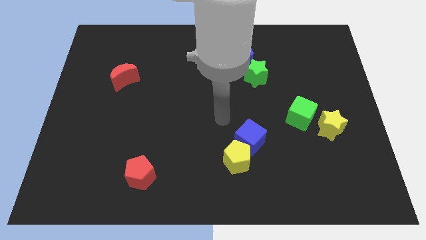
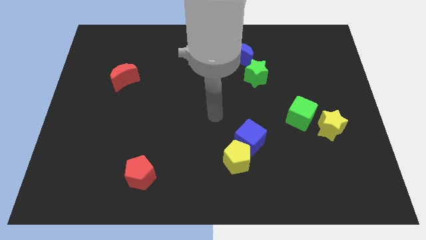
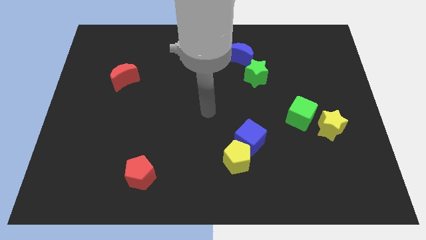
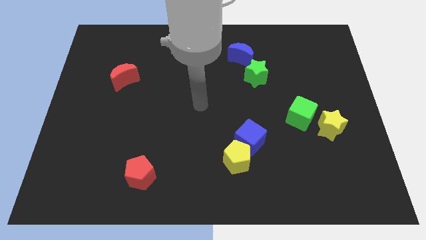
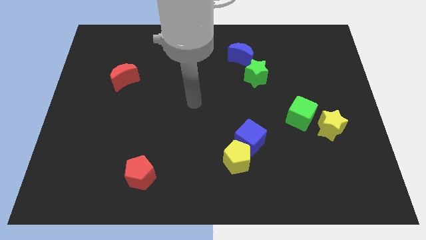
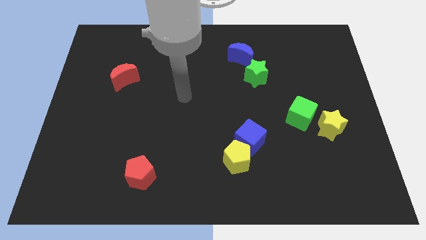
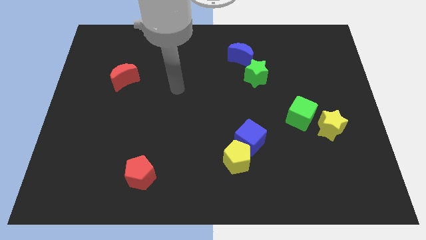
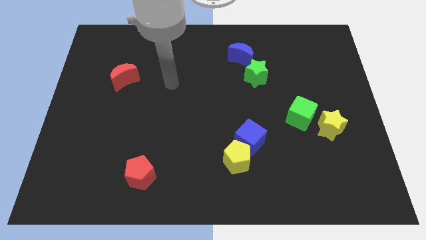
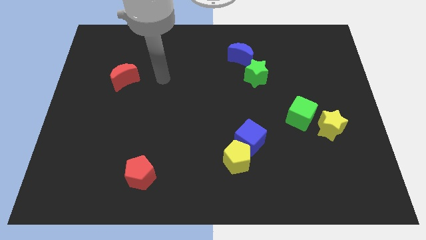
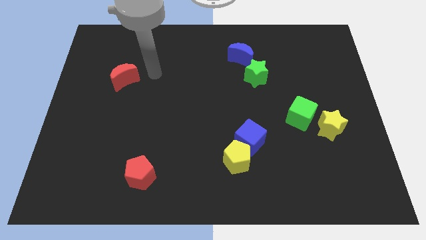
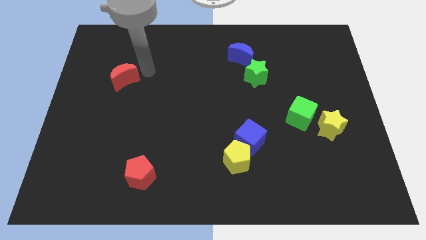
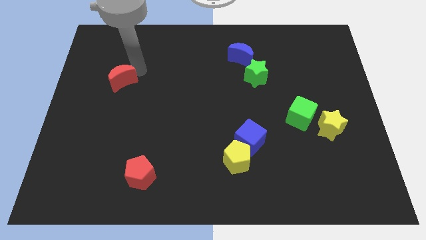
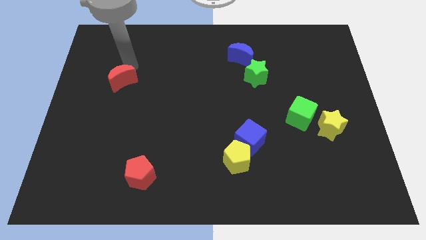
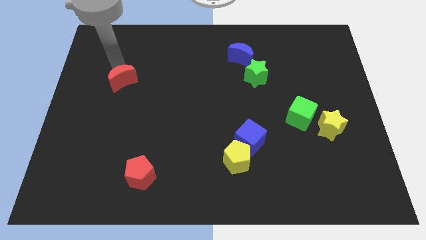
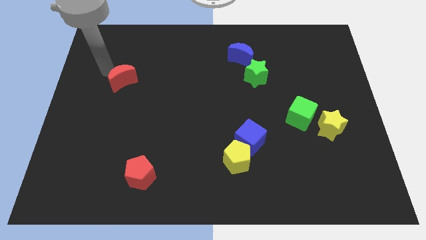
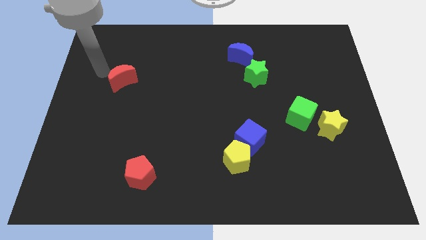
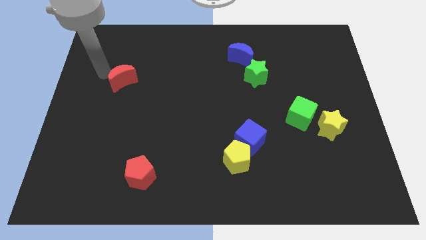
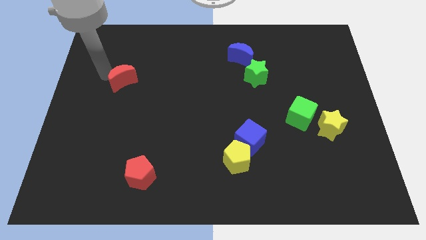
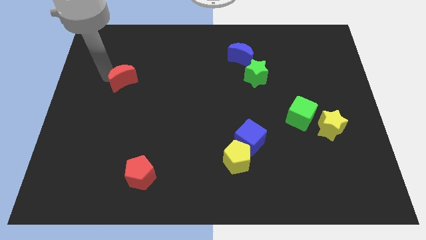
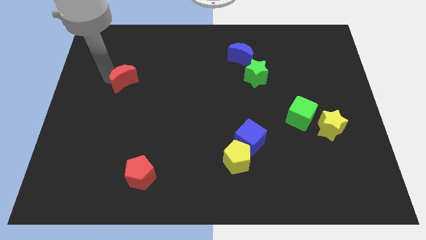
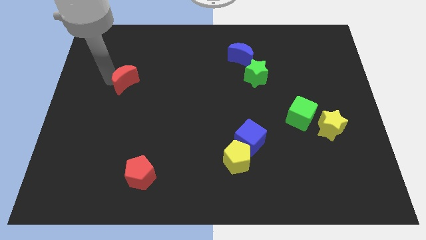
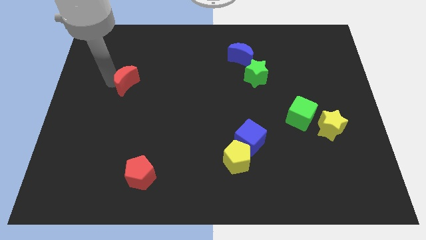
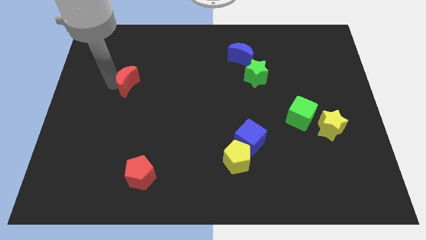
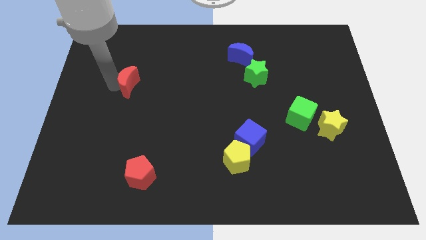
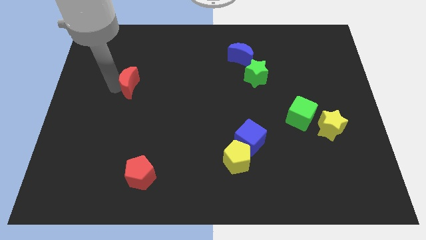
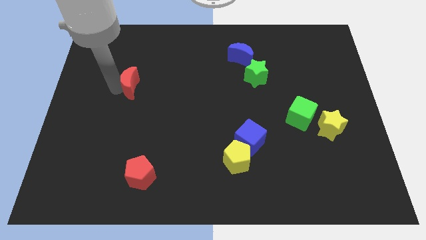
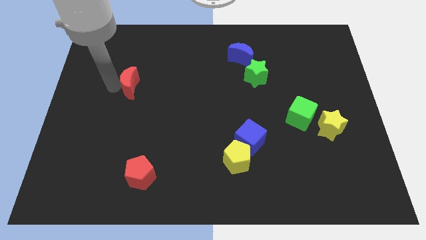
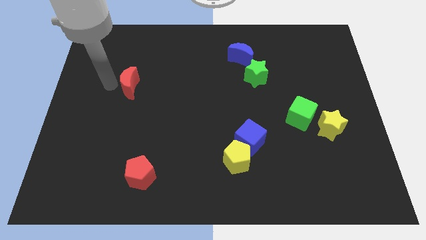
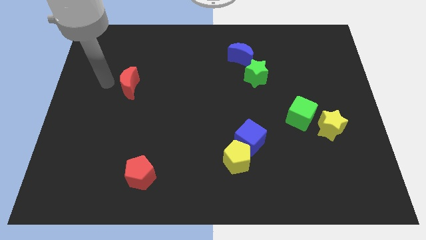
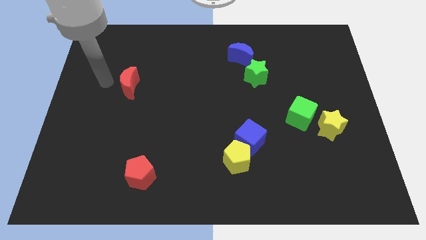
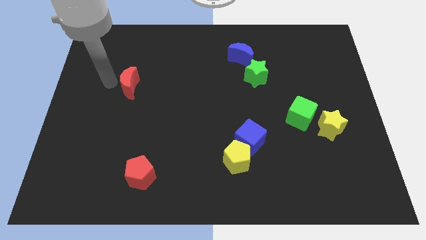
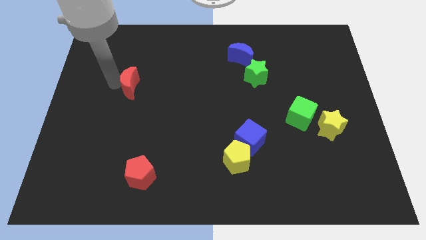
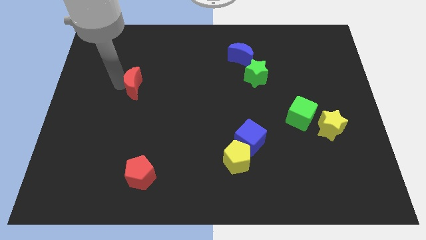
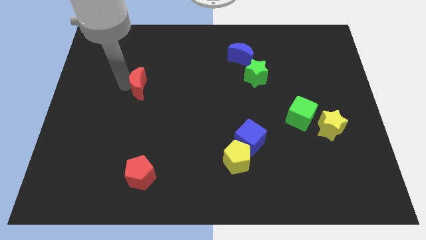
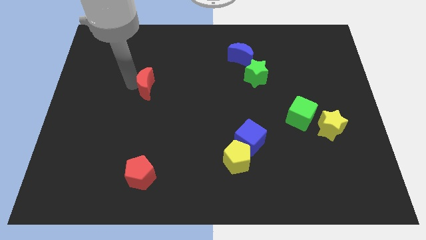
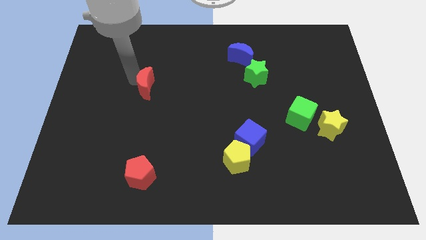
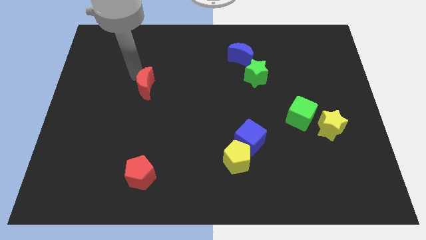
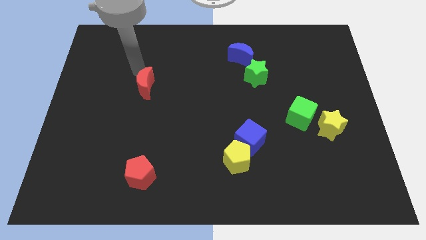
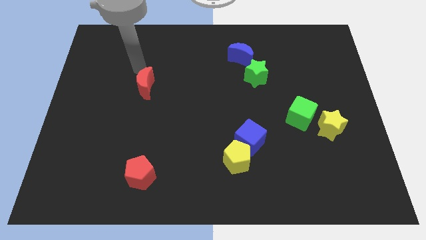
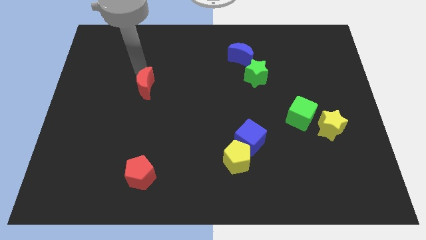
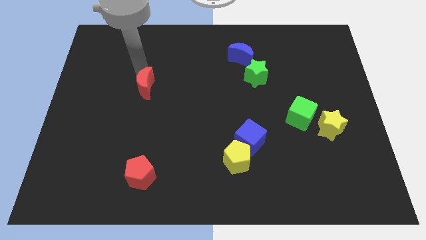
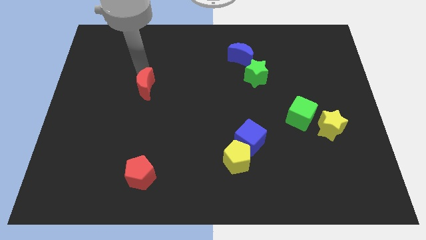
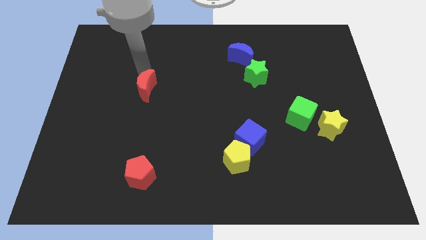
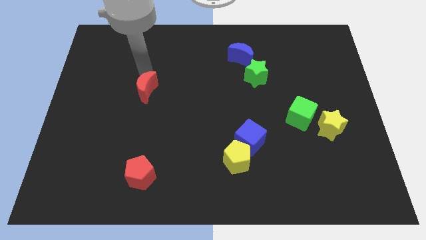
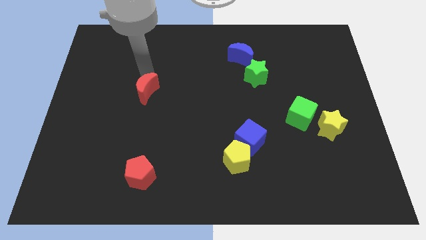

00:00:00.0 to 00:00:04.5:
move the red moon slightly diagonally downwards and right

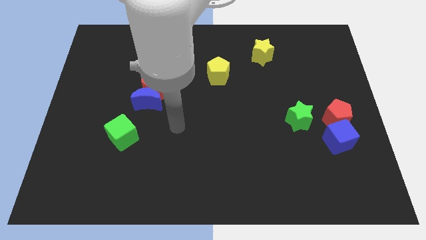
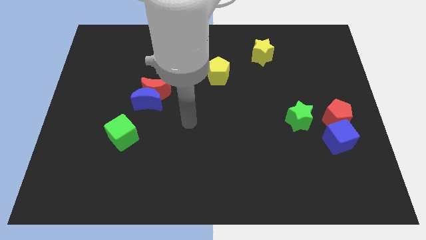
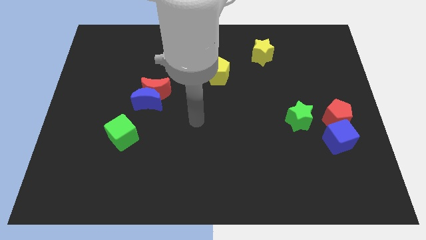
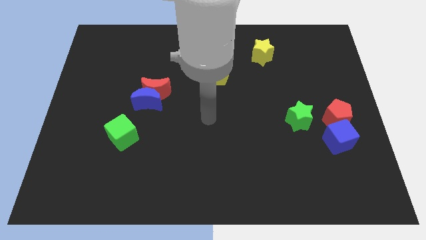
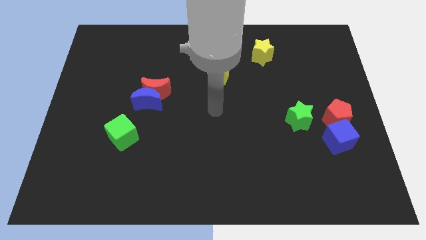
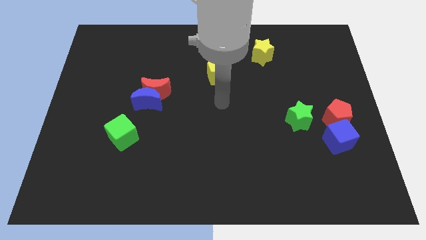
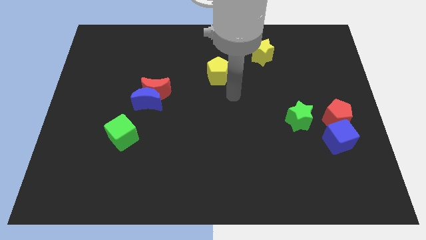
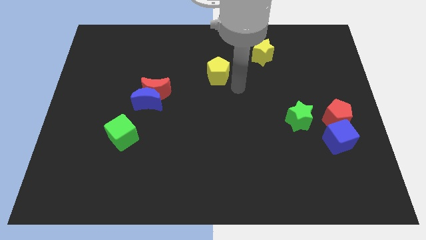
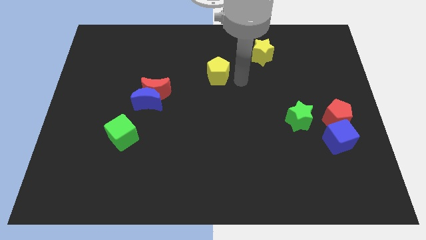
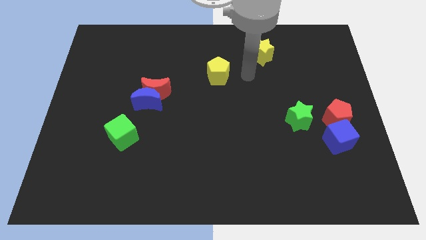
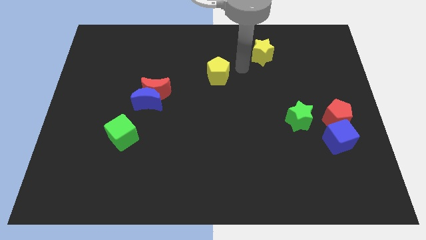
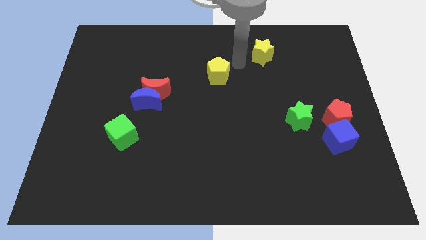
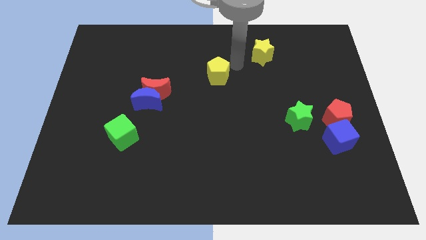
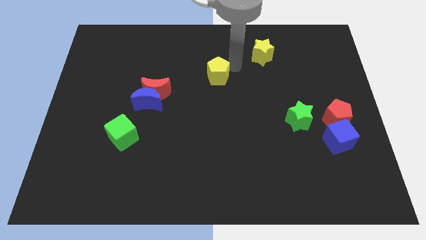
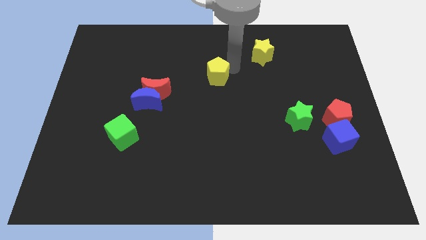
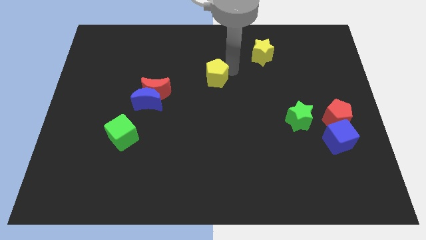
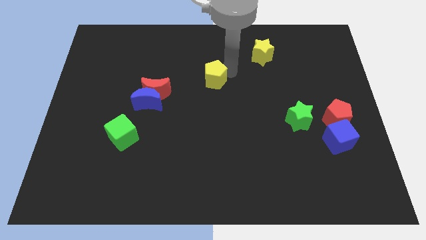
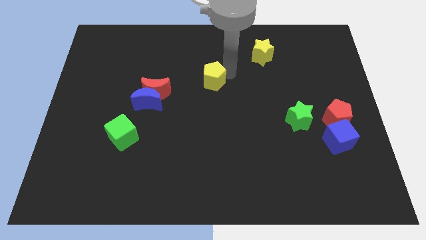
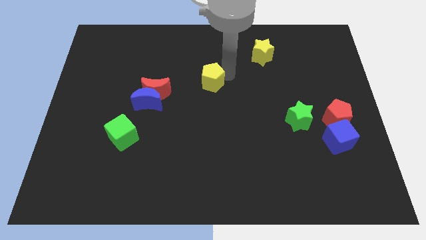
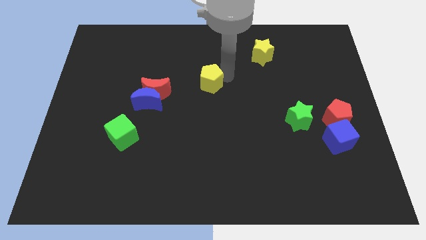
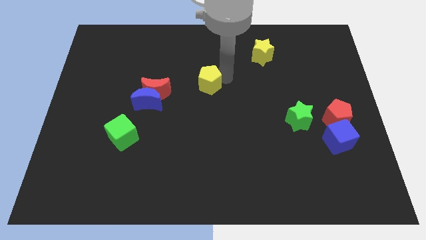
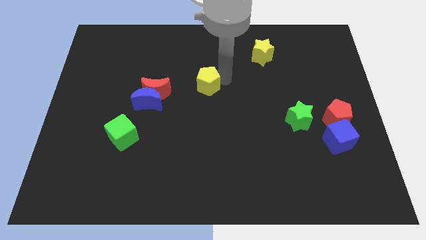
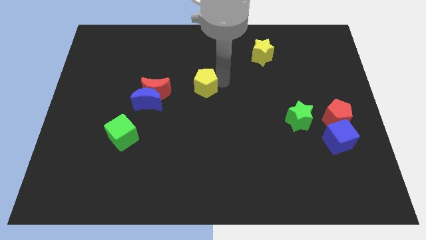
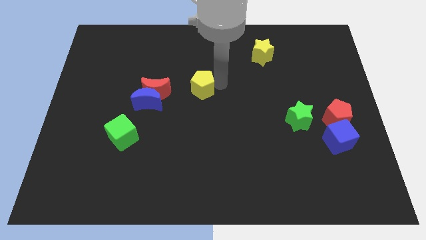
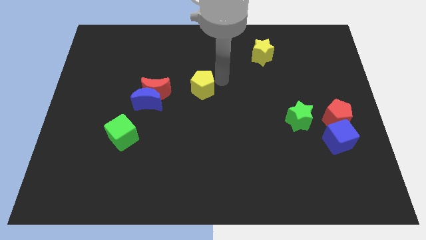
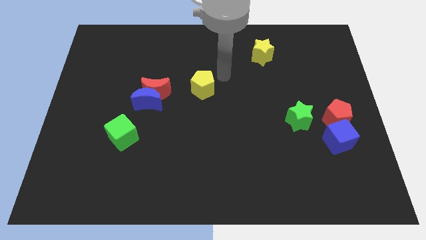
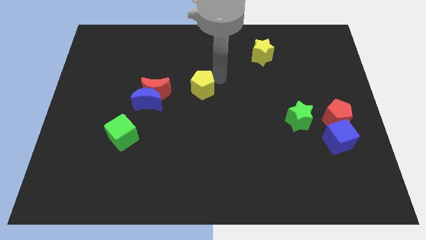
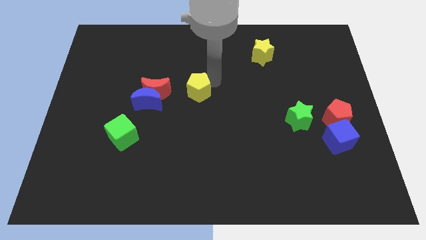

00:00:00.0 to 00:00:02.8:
slightly push the yellow pentagon downwards and left

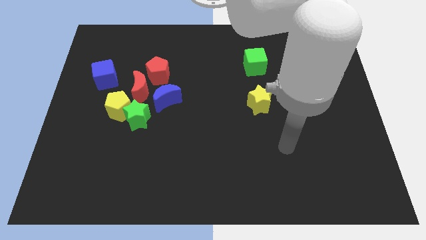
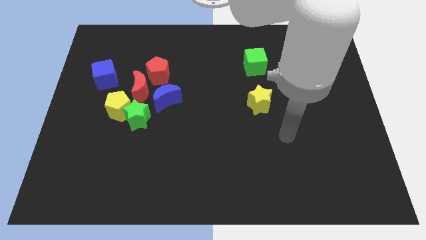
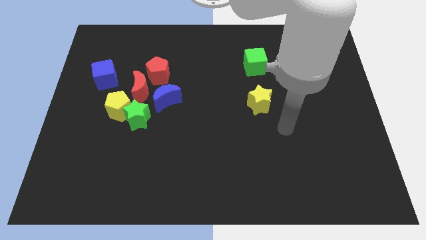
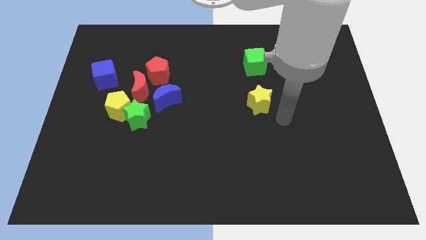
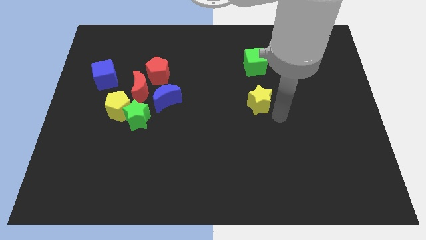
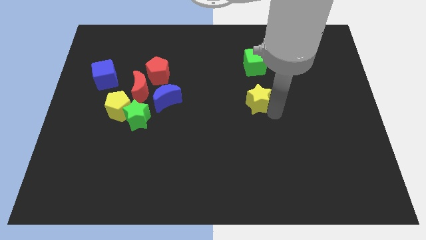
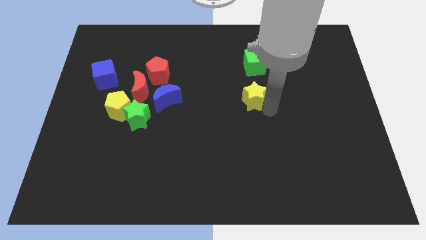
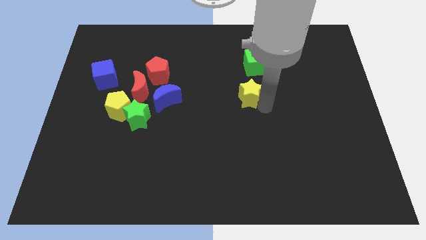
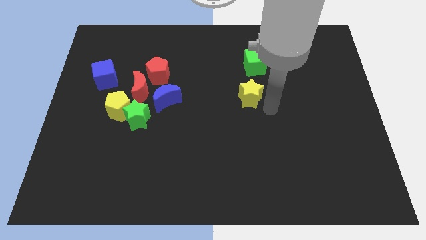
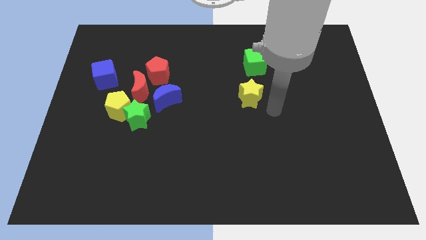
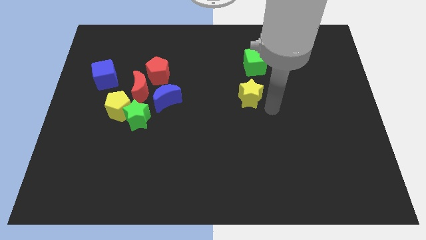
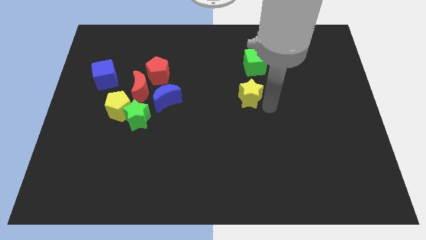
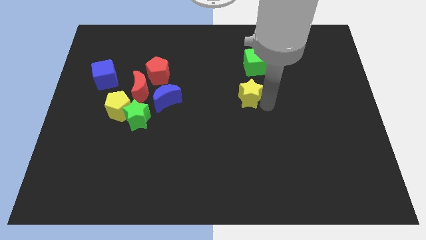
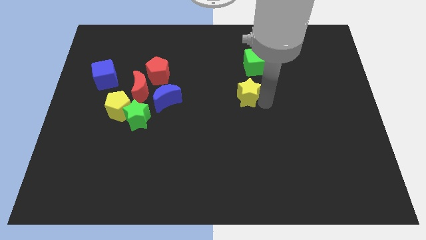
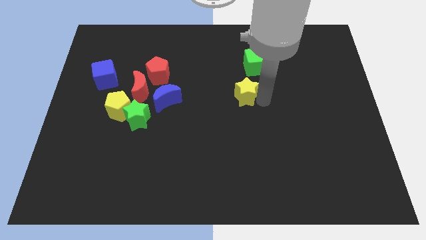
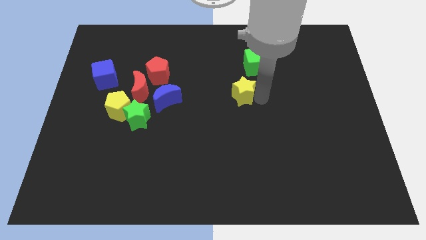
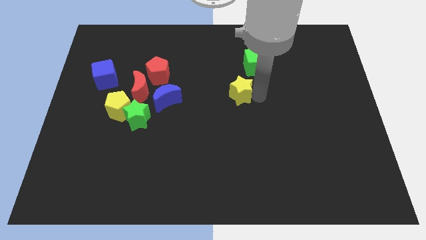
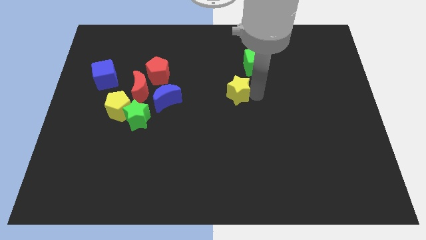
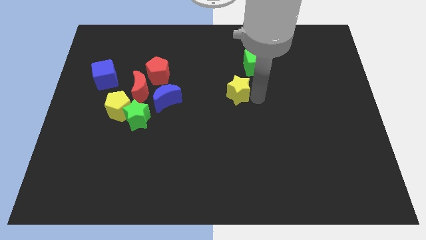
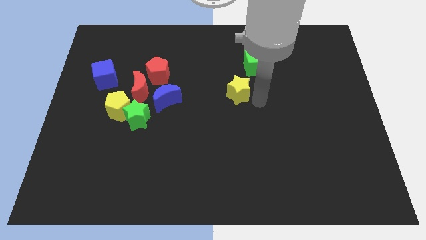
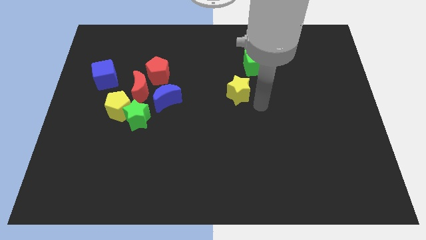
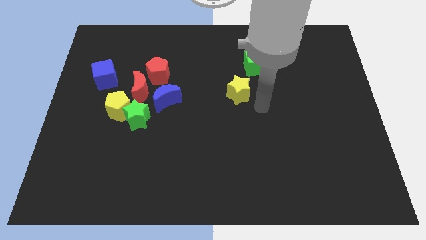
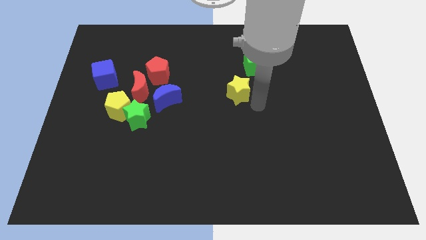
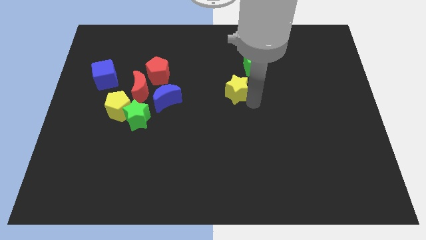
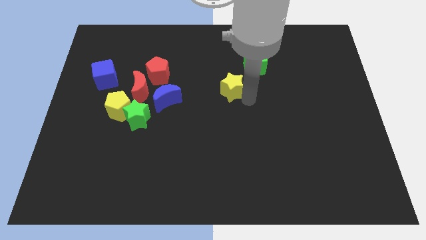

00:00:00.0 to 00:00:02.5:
push the yellow star a little up and to the left
